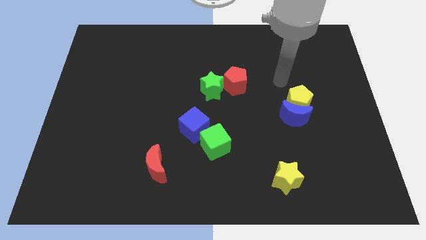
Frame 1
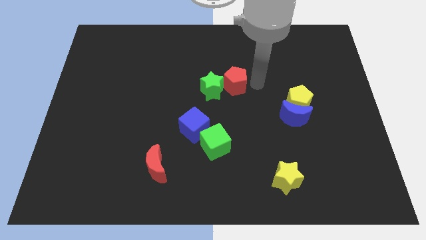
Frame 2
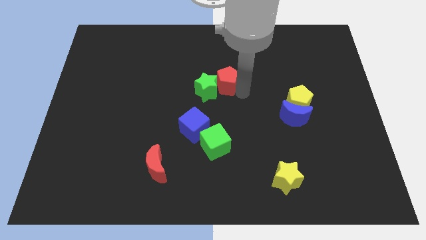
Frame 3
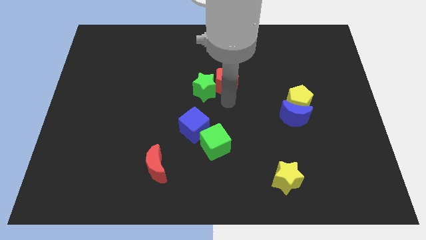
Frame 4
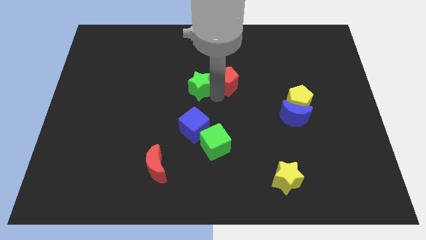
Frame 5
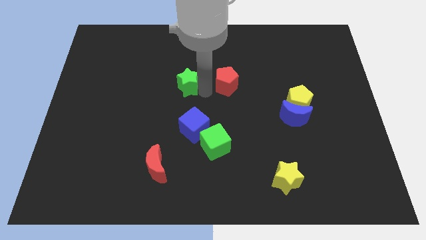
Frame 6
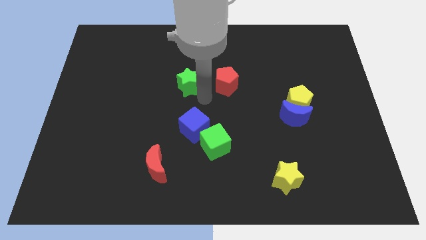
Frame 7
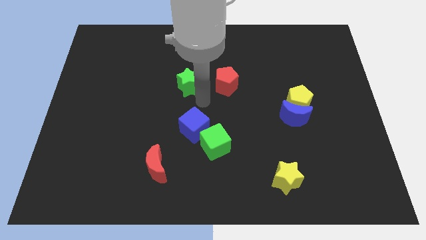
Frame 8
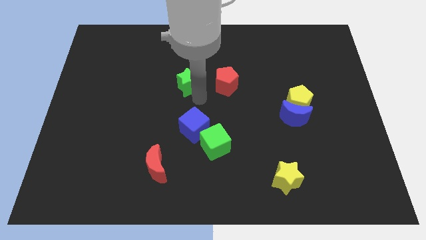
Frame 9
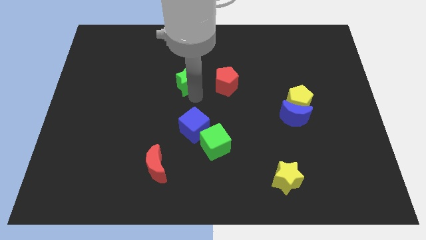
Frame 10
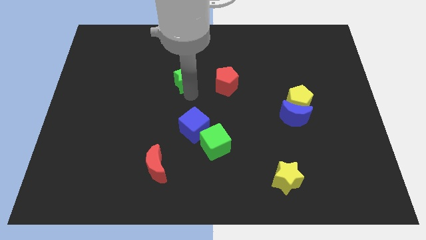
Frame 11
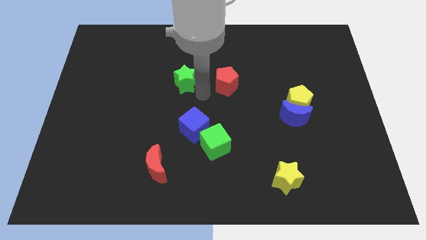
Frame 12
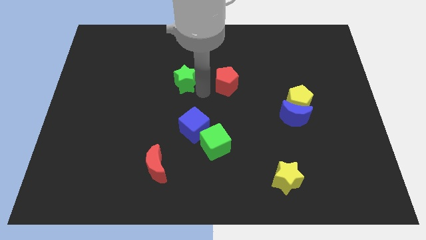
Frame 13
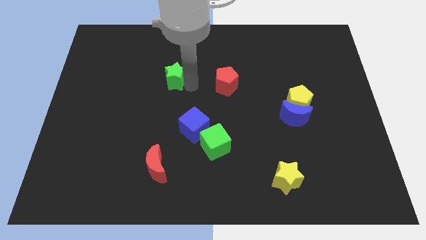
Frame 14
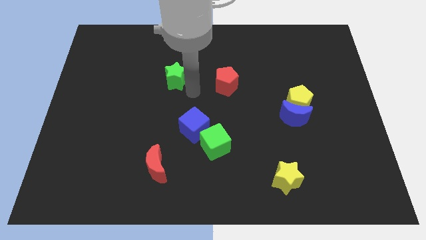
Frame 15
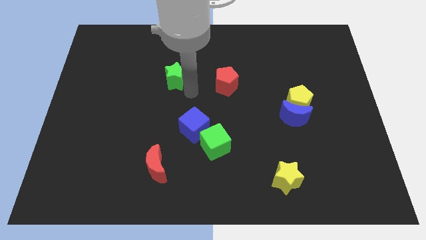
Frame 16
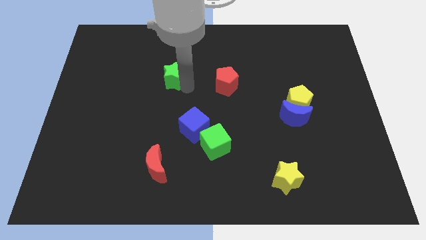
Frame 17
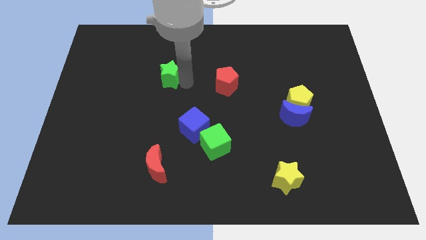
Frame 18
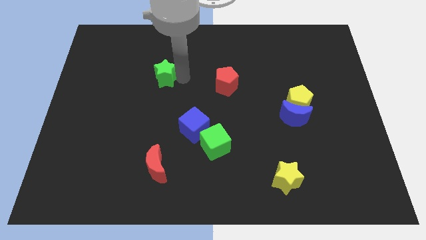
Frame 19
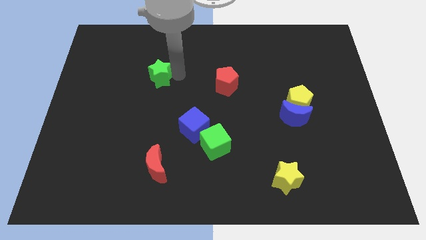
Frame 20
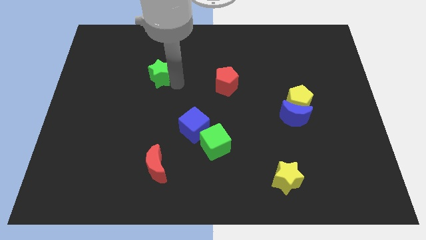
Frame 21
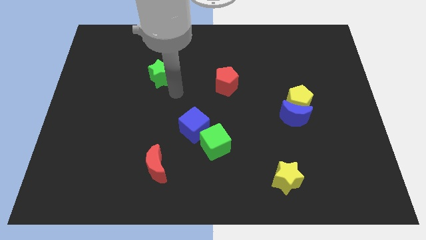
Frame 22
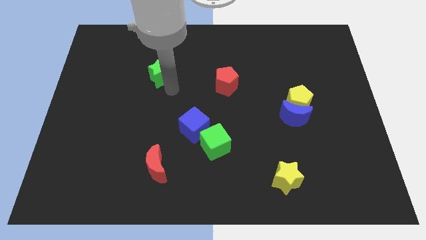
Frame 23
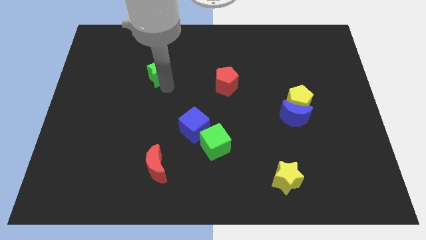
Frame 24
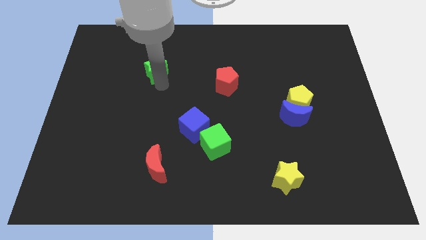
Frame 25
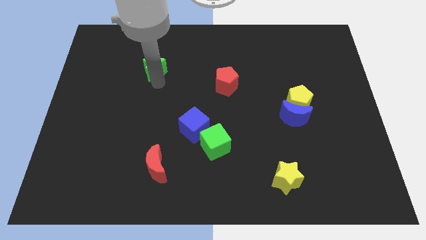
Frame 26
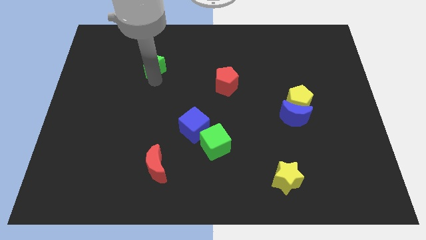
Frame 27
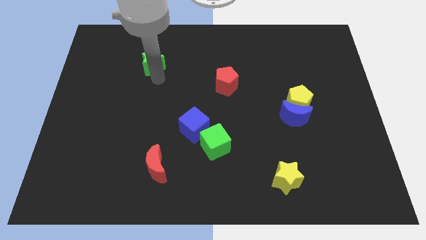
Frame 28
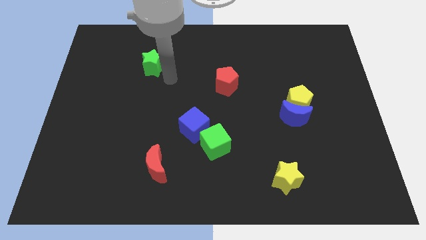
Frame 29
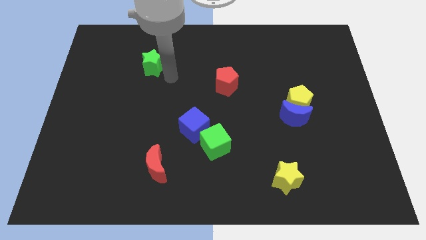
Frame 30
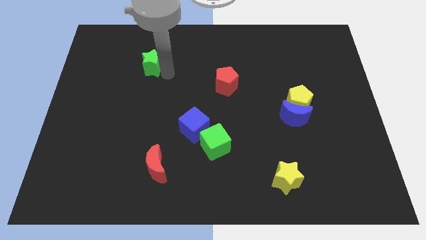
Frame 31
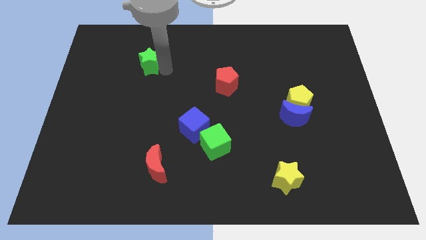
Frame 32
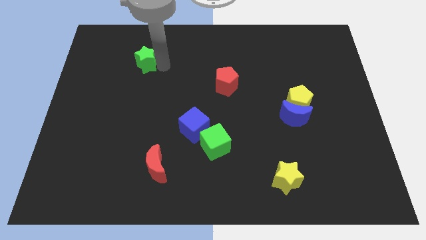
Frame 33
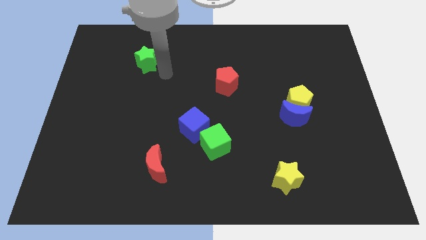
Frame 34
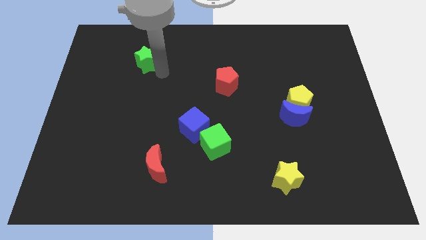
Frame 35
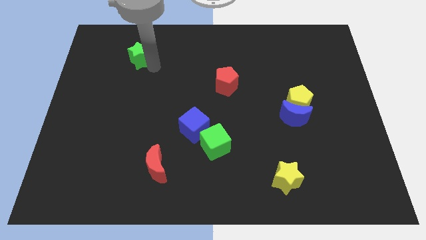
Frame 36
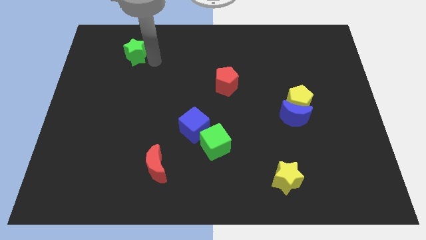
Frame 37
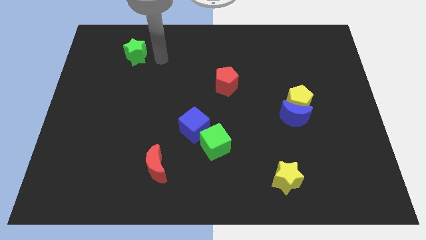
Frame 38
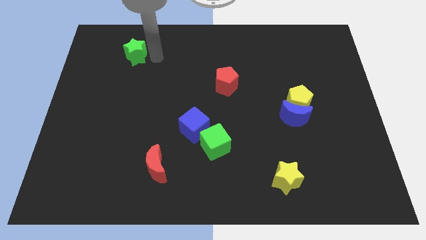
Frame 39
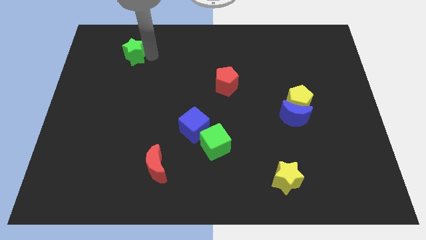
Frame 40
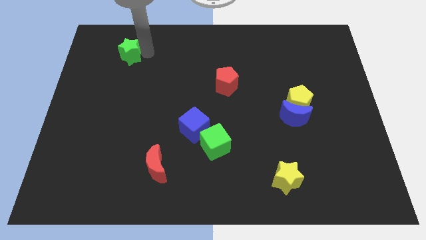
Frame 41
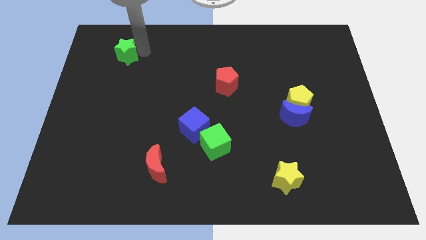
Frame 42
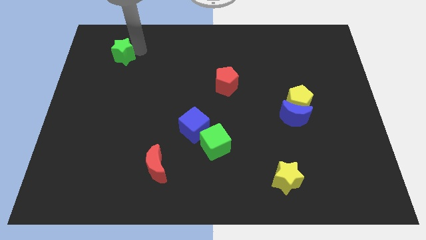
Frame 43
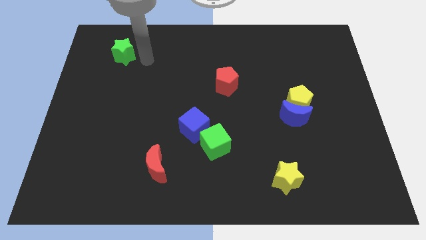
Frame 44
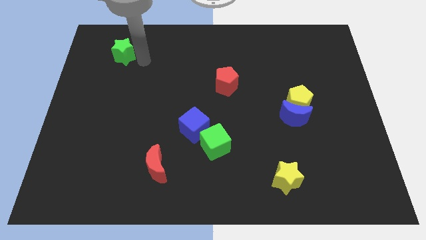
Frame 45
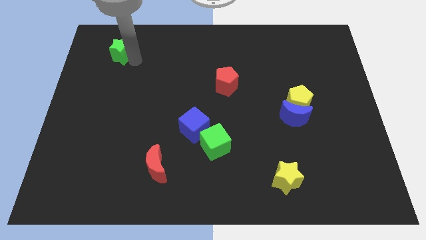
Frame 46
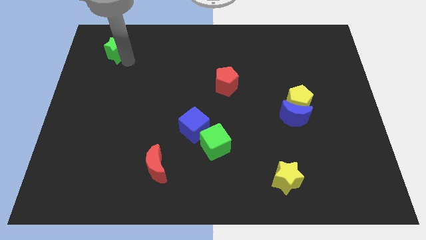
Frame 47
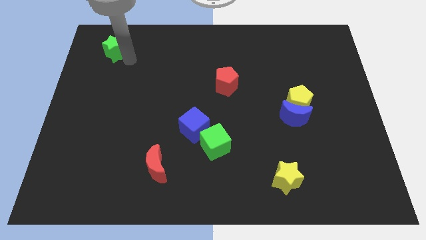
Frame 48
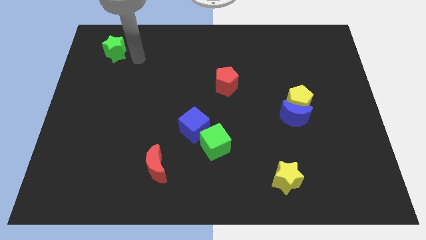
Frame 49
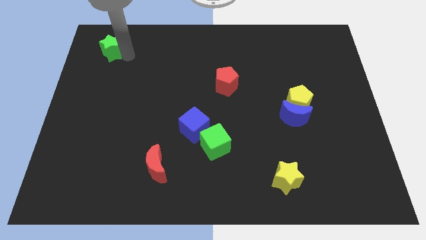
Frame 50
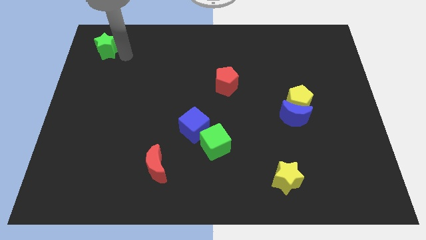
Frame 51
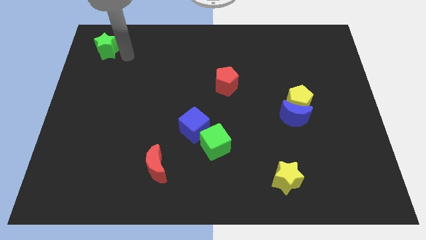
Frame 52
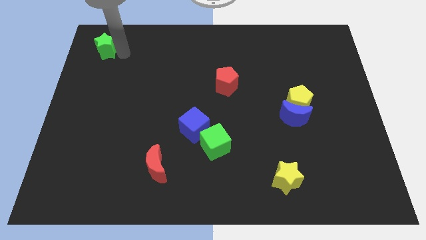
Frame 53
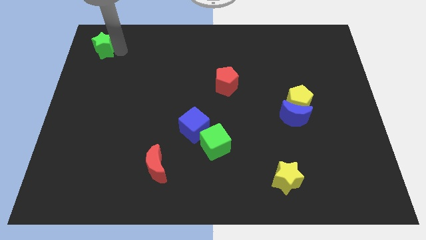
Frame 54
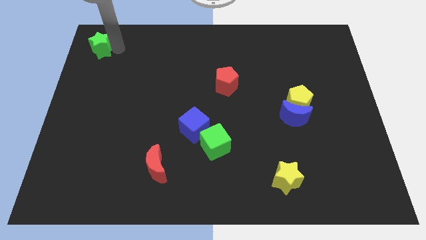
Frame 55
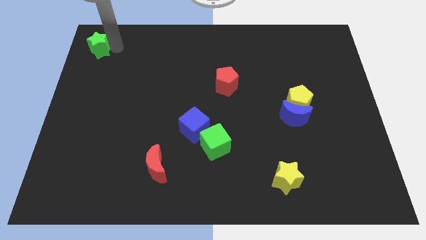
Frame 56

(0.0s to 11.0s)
slide the green star to the top left of the board

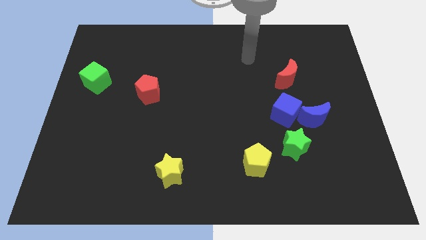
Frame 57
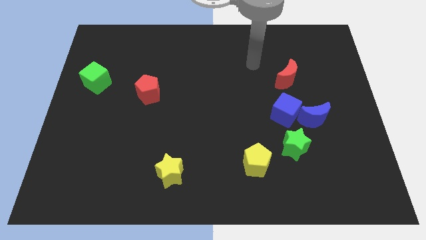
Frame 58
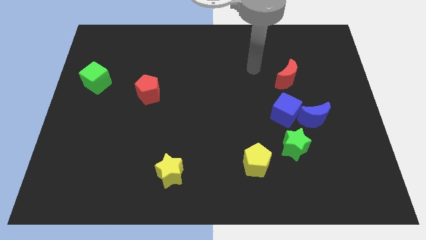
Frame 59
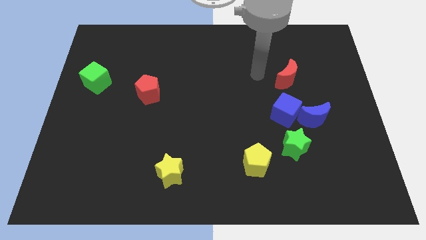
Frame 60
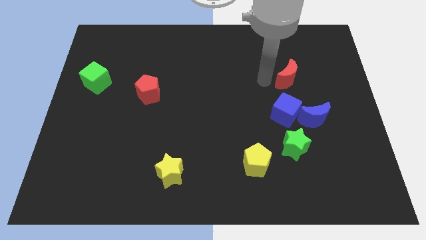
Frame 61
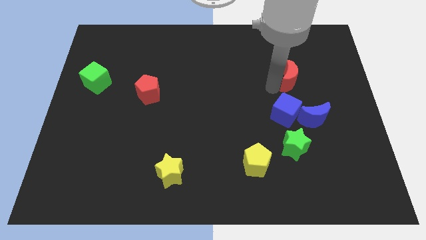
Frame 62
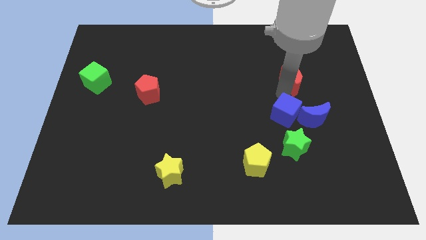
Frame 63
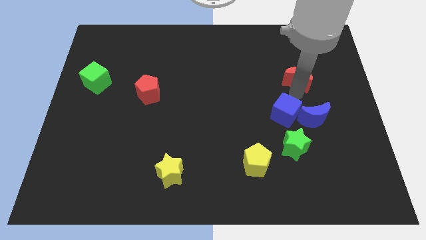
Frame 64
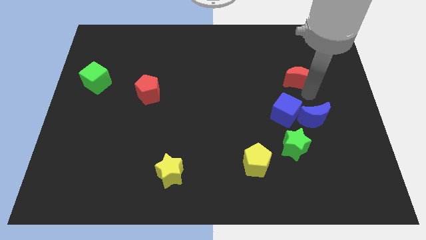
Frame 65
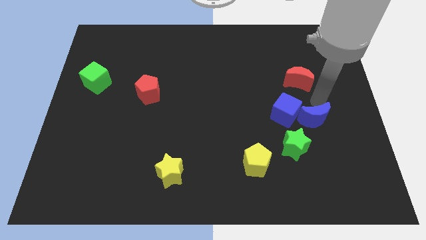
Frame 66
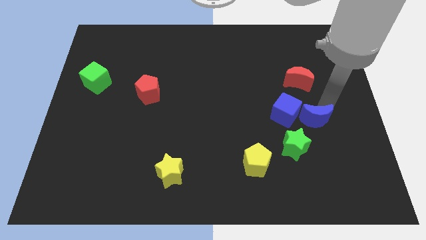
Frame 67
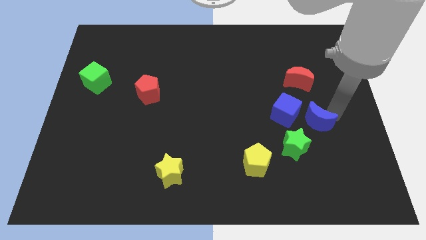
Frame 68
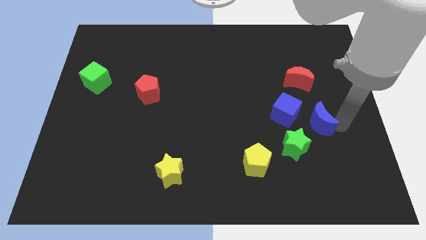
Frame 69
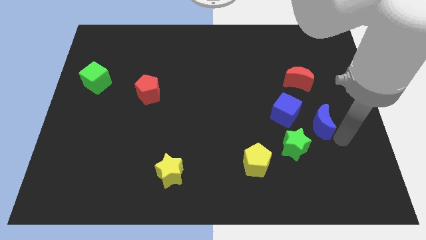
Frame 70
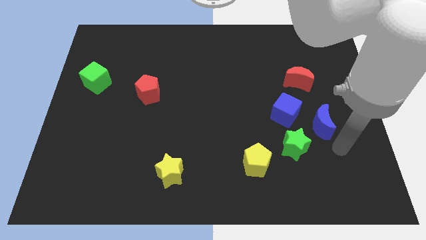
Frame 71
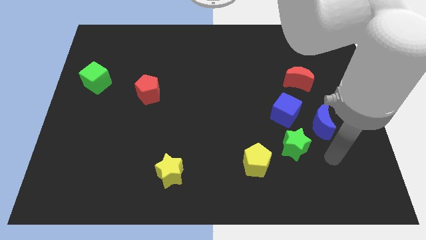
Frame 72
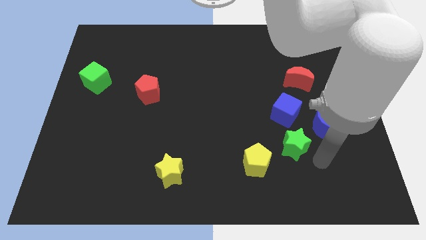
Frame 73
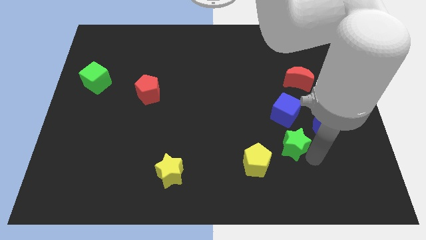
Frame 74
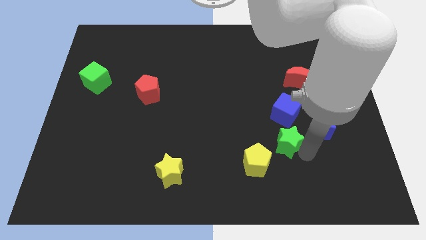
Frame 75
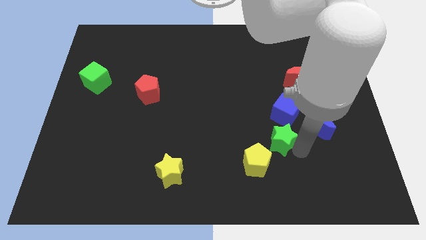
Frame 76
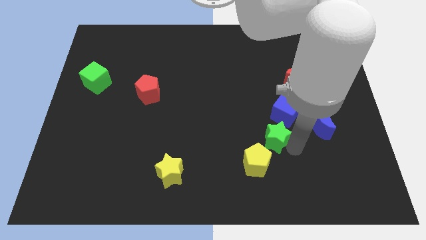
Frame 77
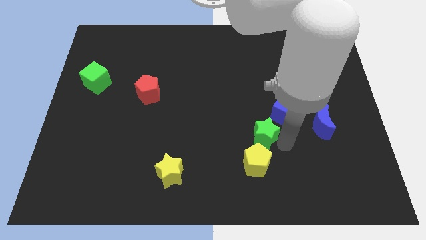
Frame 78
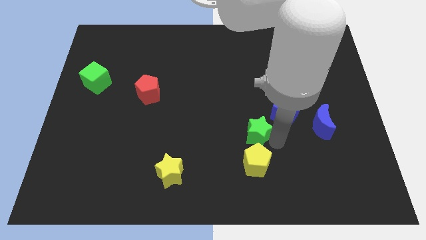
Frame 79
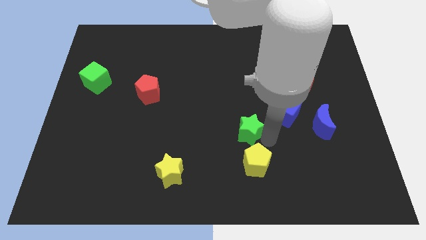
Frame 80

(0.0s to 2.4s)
push the green star to the middle of the board
